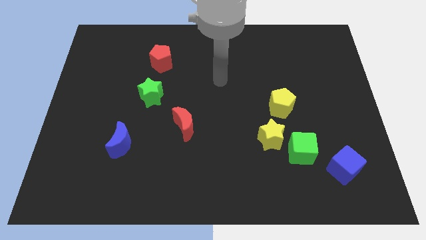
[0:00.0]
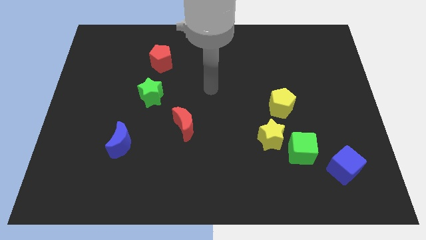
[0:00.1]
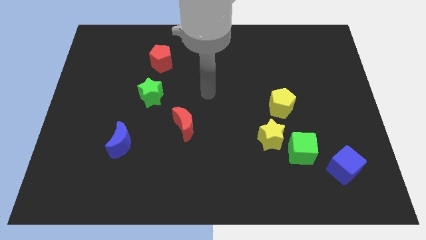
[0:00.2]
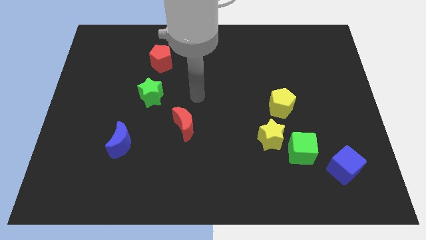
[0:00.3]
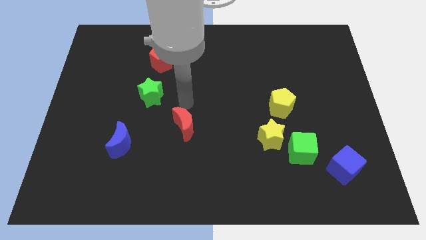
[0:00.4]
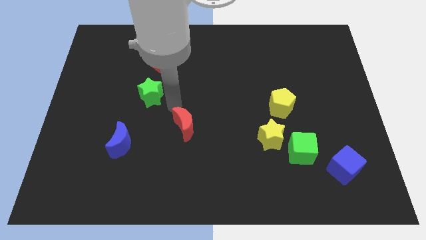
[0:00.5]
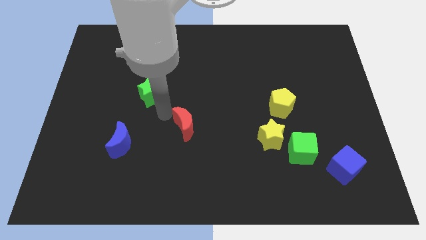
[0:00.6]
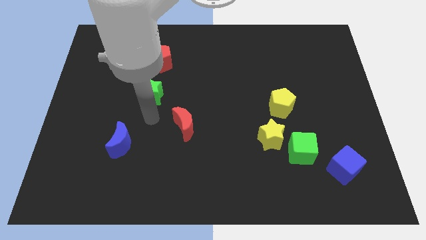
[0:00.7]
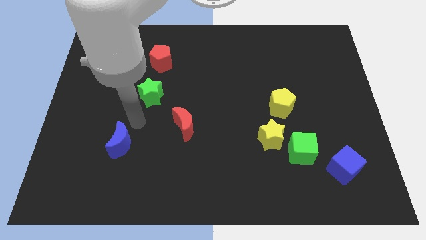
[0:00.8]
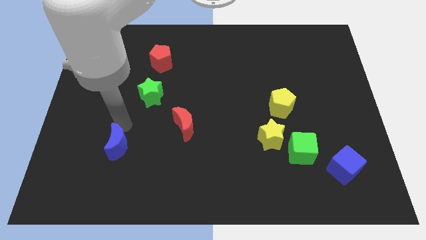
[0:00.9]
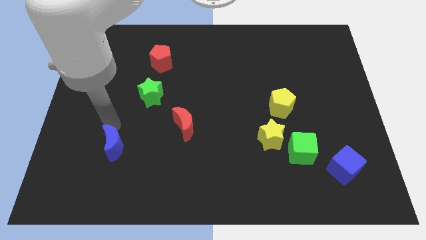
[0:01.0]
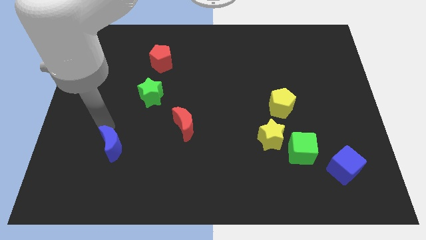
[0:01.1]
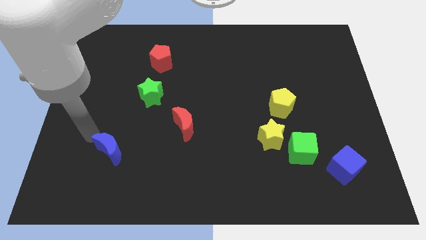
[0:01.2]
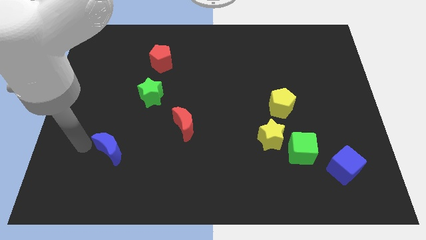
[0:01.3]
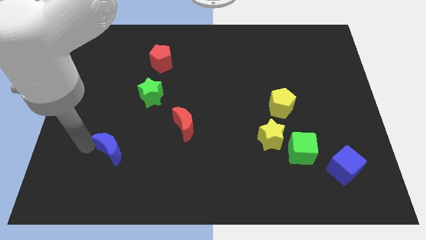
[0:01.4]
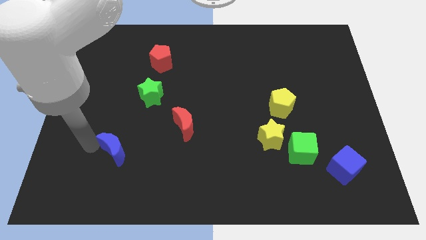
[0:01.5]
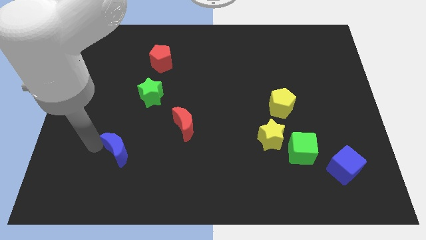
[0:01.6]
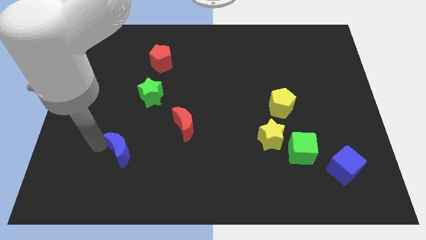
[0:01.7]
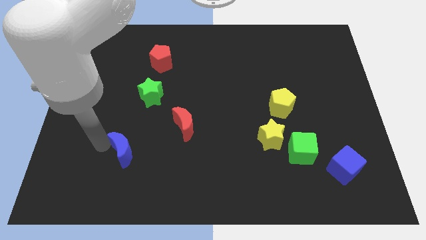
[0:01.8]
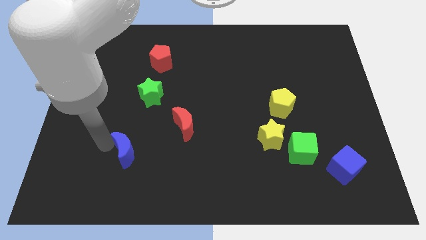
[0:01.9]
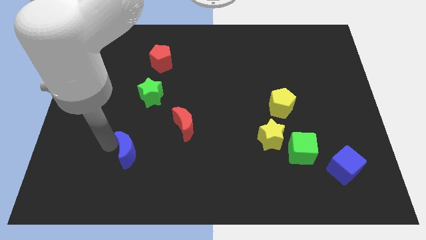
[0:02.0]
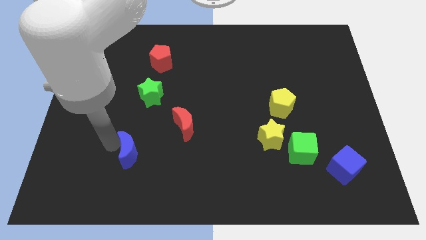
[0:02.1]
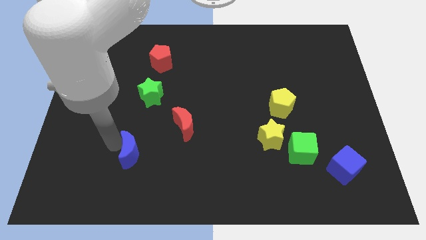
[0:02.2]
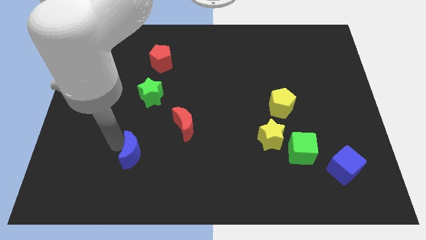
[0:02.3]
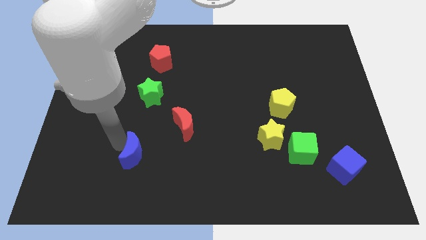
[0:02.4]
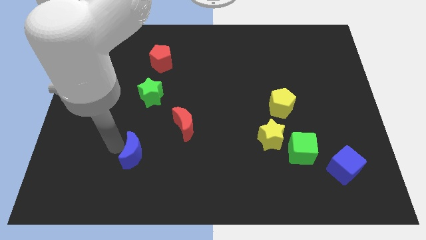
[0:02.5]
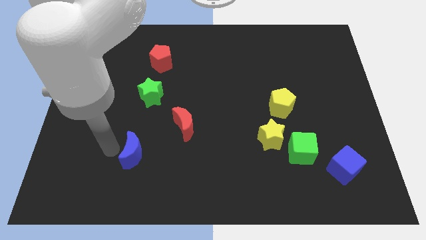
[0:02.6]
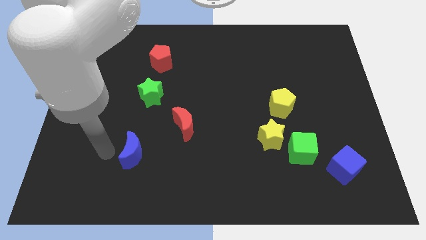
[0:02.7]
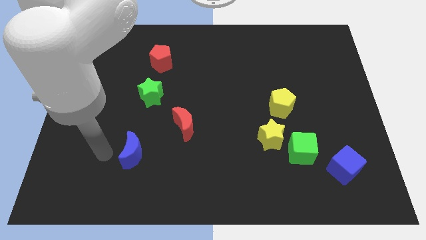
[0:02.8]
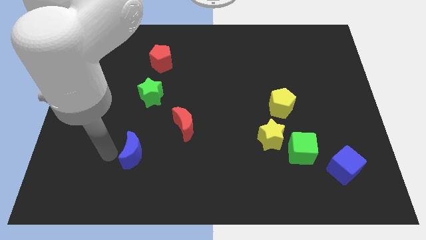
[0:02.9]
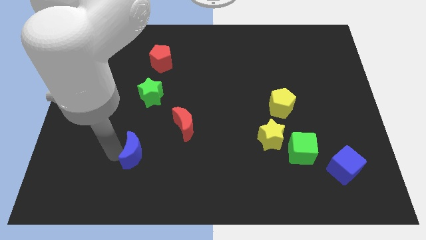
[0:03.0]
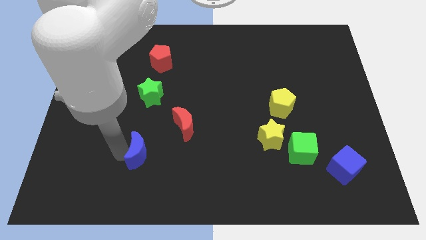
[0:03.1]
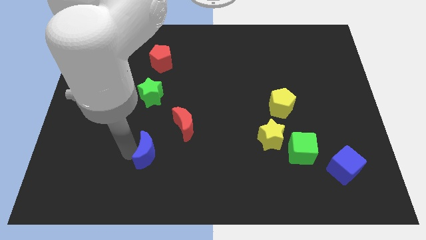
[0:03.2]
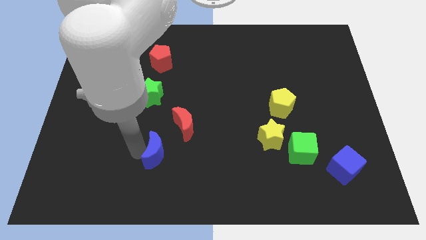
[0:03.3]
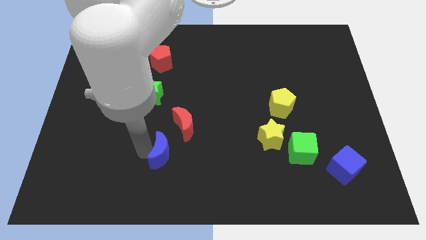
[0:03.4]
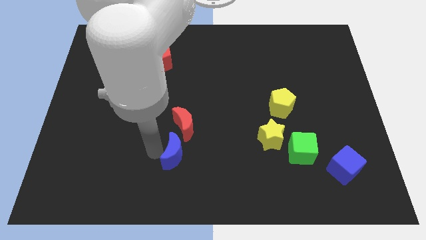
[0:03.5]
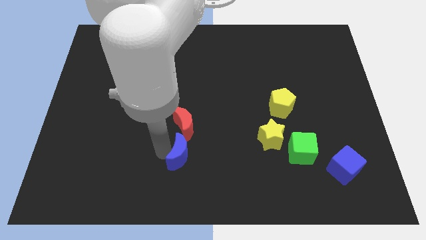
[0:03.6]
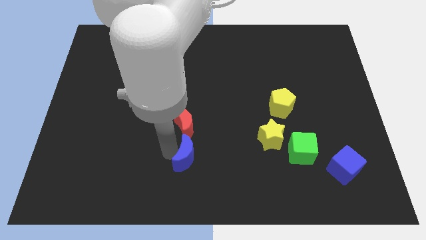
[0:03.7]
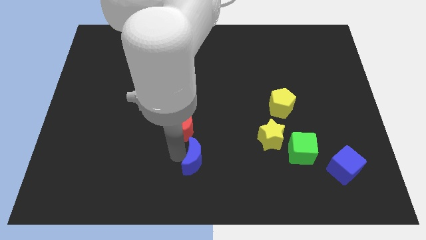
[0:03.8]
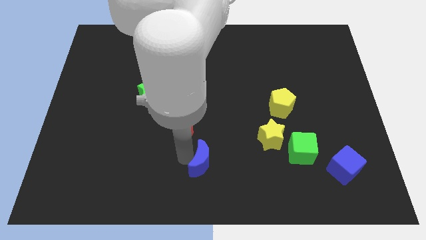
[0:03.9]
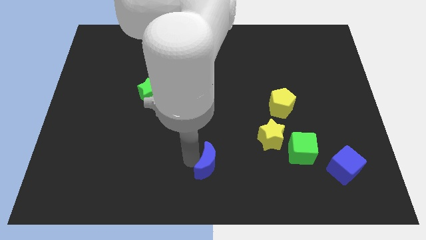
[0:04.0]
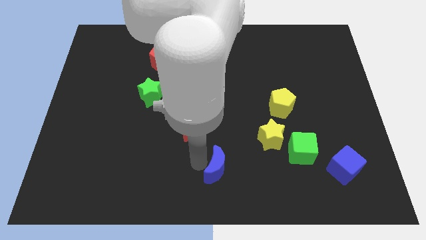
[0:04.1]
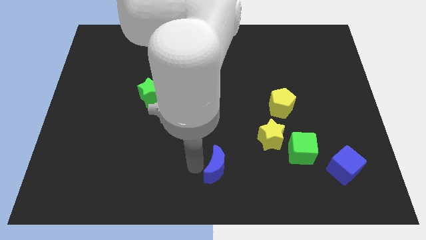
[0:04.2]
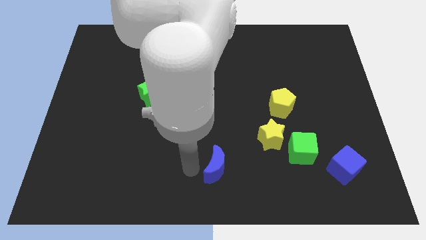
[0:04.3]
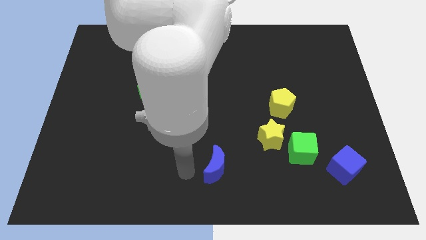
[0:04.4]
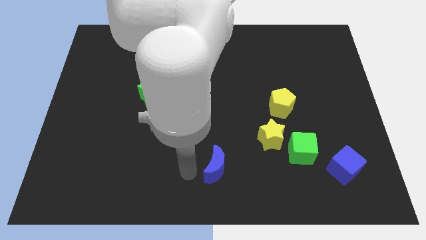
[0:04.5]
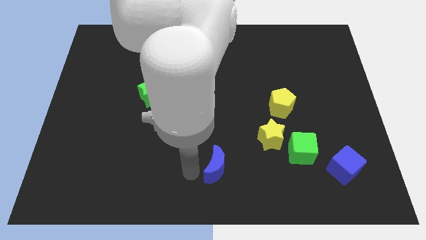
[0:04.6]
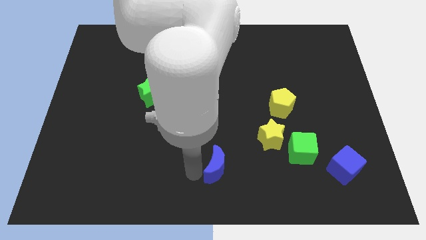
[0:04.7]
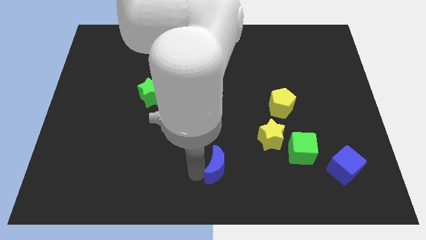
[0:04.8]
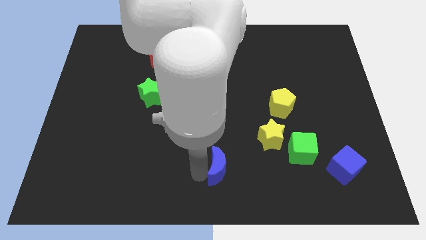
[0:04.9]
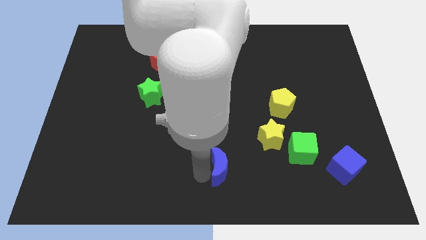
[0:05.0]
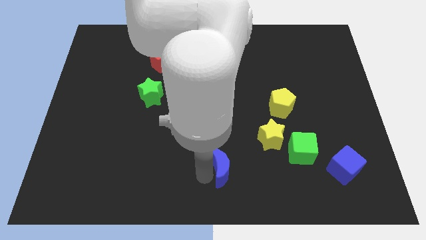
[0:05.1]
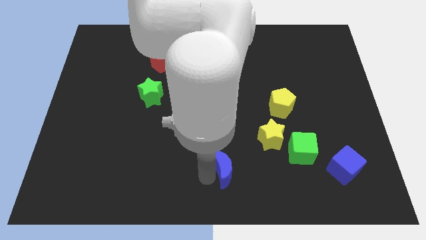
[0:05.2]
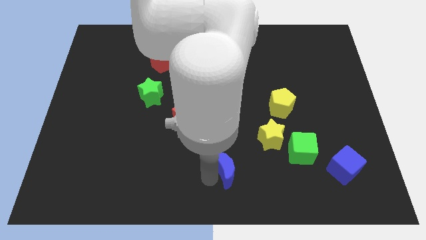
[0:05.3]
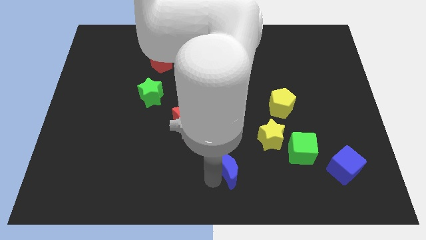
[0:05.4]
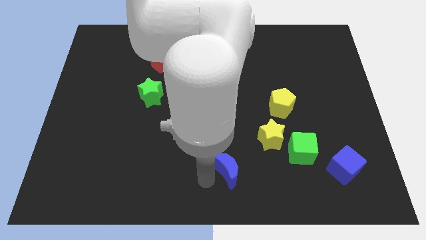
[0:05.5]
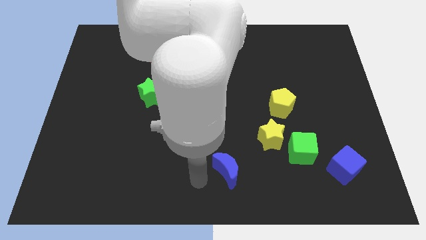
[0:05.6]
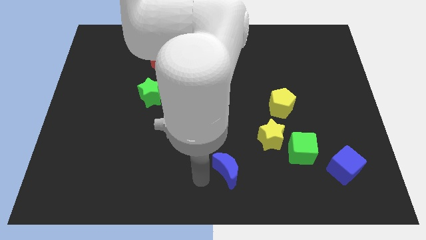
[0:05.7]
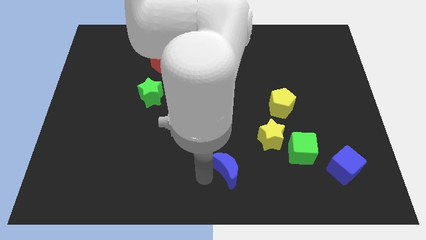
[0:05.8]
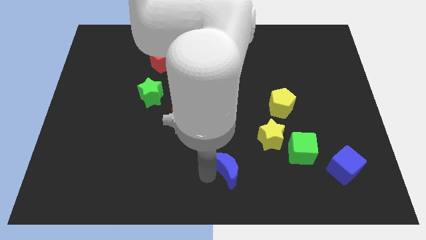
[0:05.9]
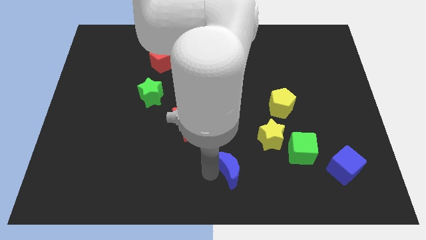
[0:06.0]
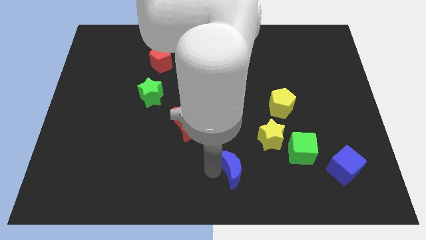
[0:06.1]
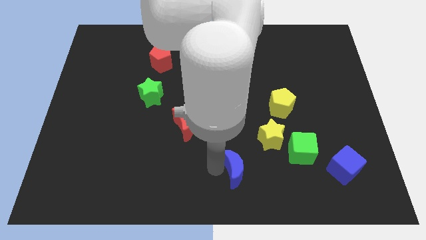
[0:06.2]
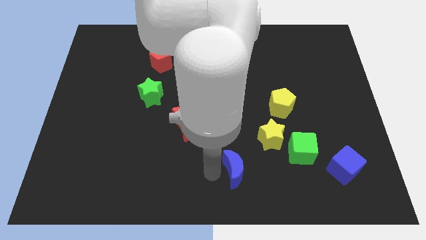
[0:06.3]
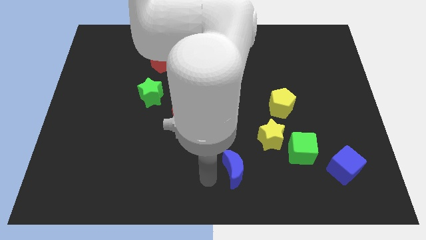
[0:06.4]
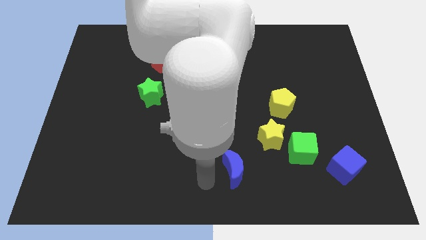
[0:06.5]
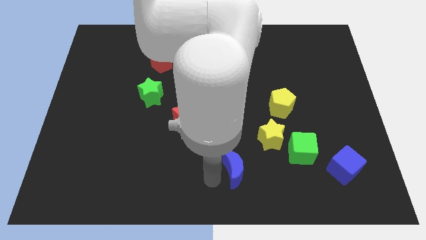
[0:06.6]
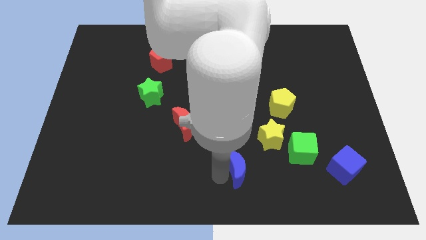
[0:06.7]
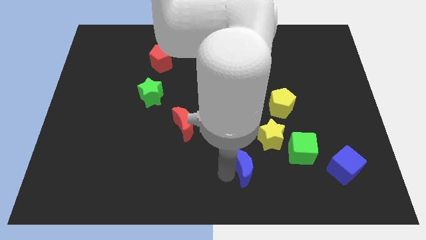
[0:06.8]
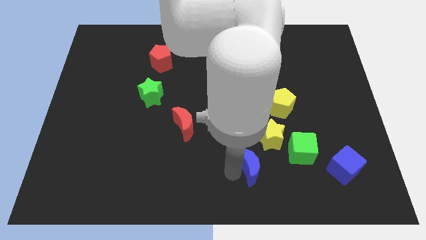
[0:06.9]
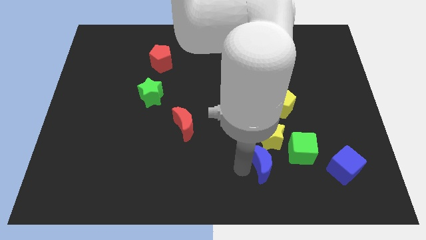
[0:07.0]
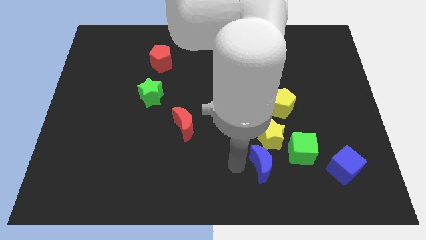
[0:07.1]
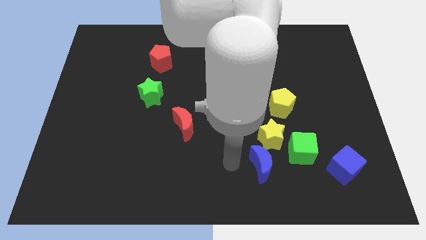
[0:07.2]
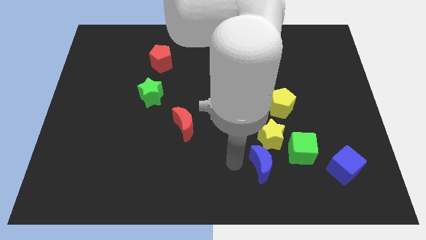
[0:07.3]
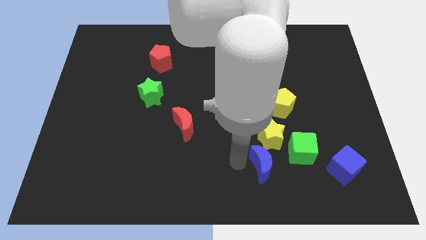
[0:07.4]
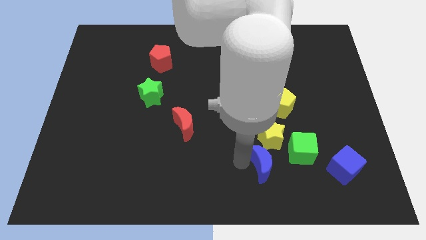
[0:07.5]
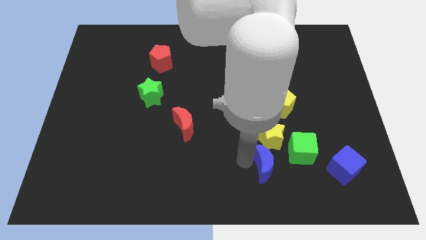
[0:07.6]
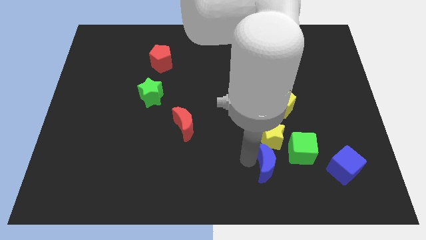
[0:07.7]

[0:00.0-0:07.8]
move the blue moon left of the blue cube

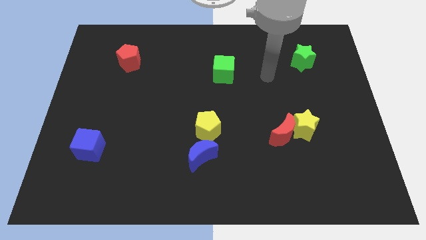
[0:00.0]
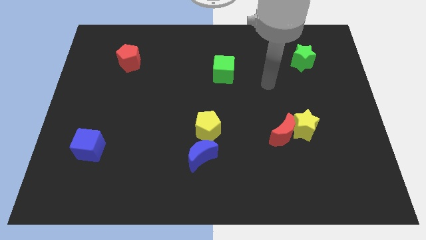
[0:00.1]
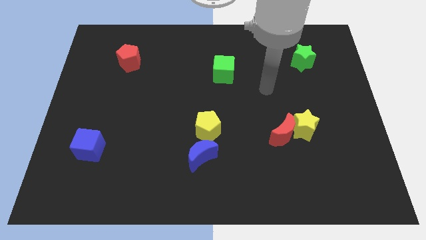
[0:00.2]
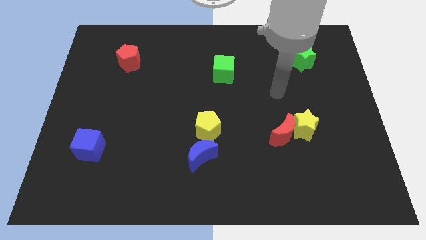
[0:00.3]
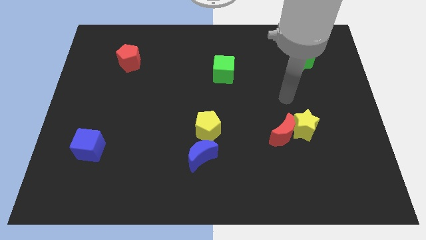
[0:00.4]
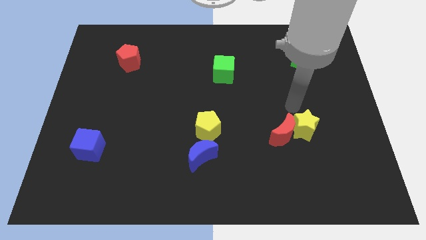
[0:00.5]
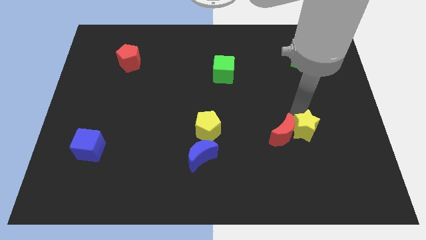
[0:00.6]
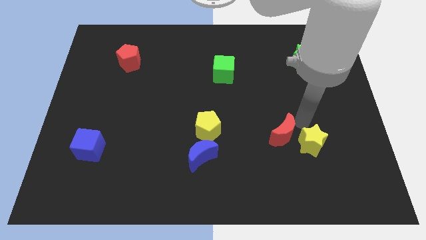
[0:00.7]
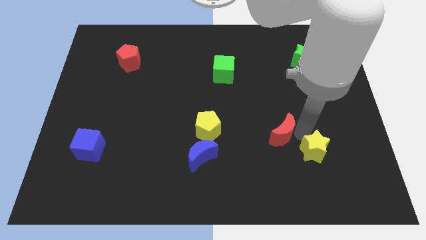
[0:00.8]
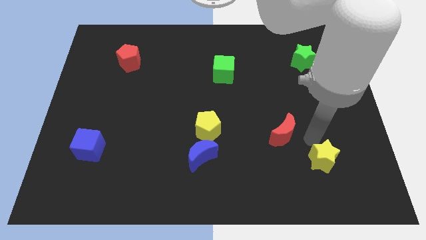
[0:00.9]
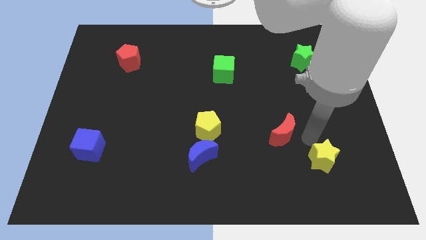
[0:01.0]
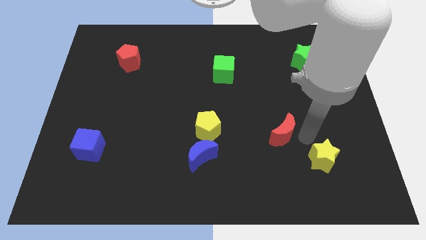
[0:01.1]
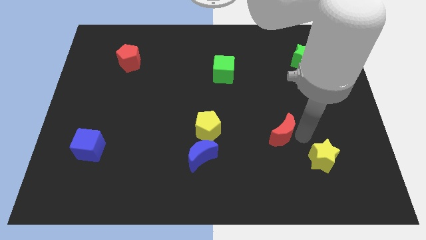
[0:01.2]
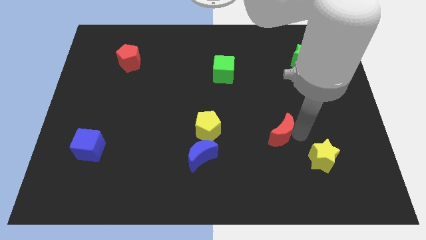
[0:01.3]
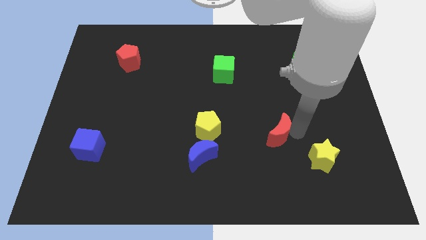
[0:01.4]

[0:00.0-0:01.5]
put the red moon to the right side of the yellow pentagon
